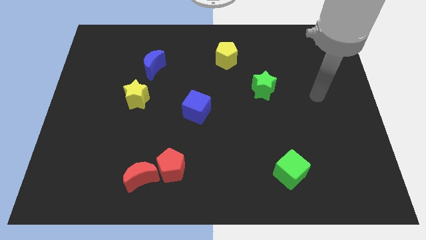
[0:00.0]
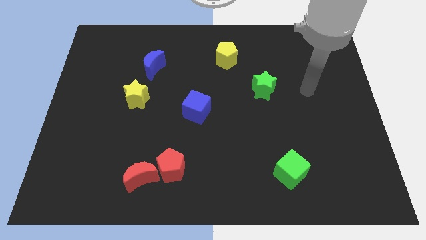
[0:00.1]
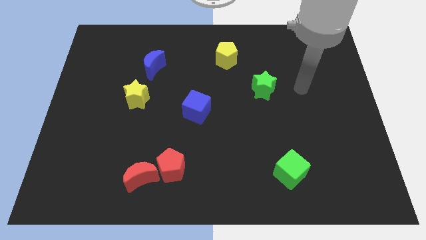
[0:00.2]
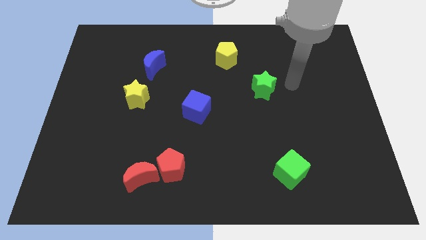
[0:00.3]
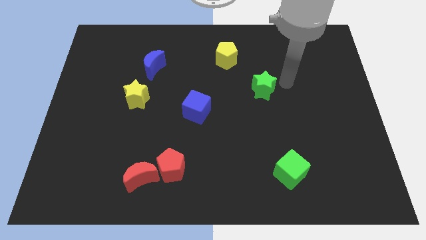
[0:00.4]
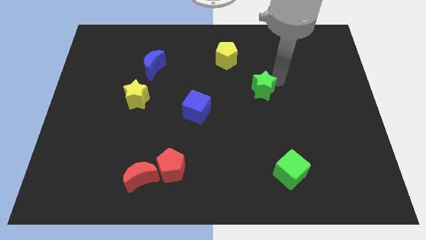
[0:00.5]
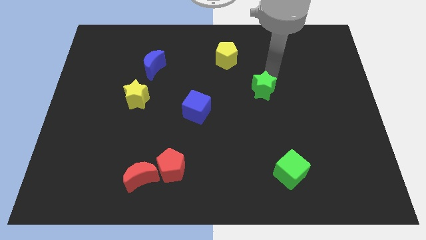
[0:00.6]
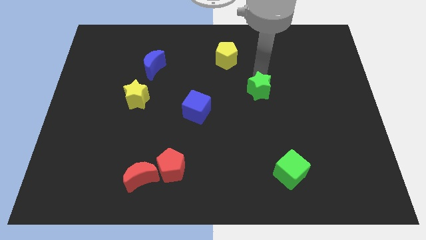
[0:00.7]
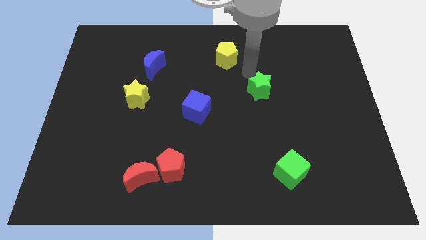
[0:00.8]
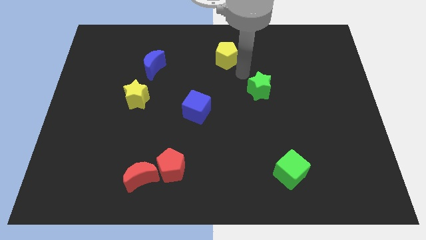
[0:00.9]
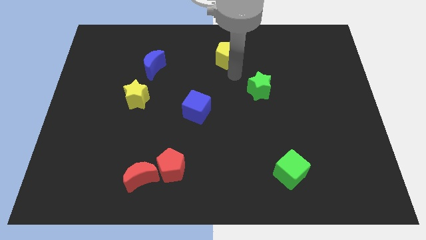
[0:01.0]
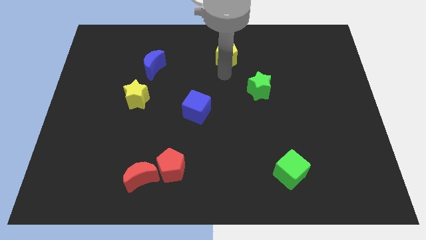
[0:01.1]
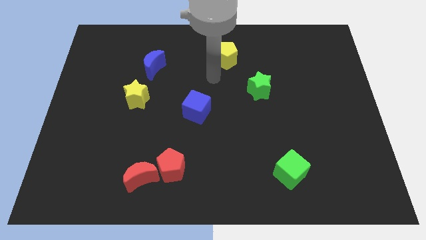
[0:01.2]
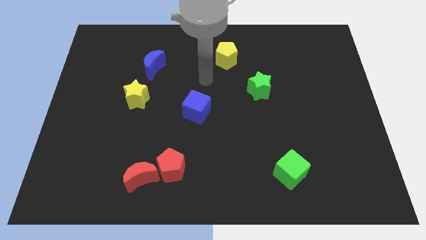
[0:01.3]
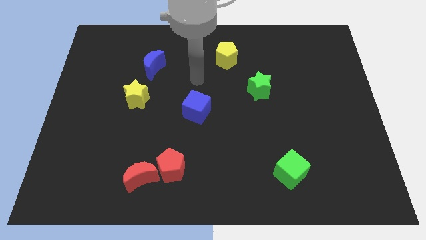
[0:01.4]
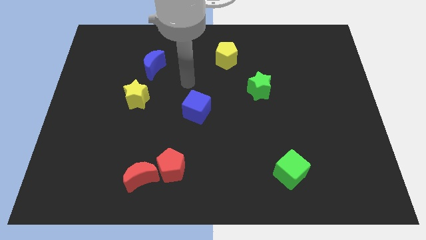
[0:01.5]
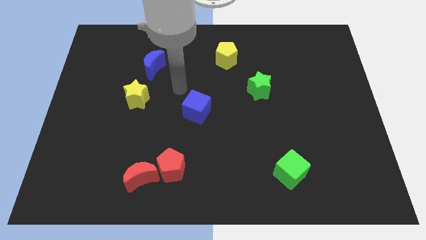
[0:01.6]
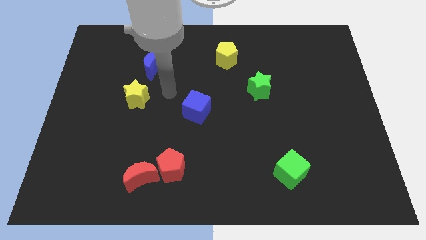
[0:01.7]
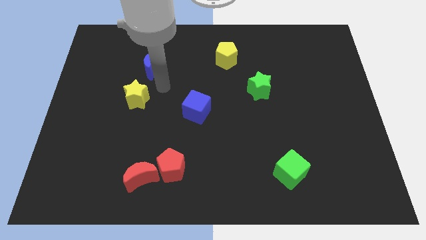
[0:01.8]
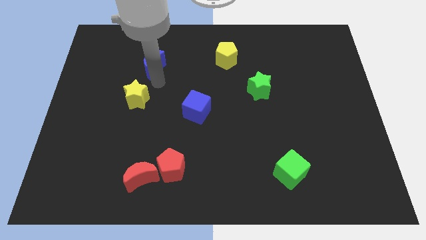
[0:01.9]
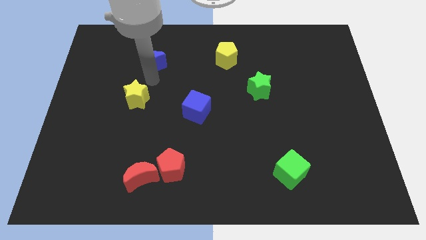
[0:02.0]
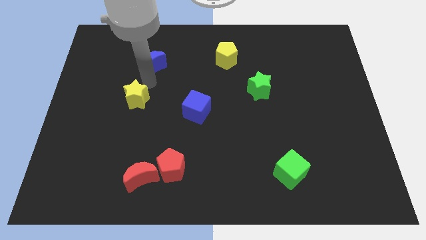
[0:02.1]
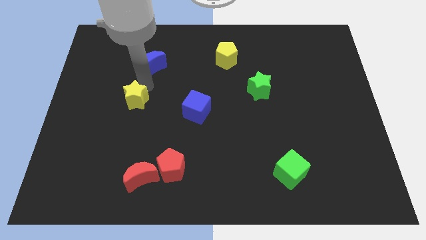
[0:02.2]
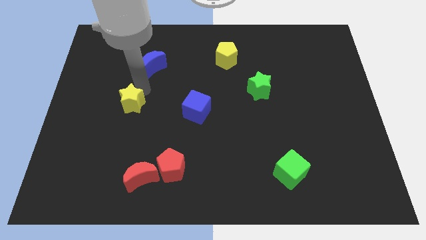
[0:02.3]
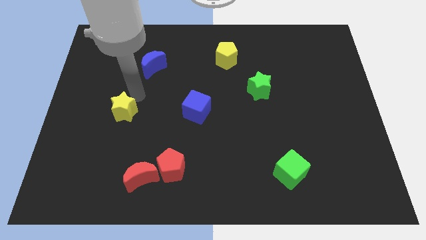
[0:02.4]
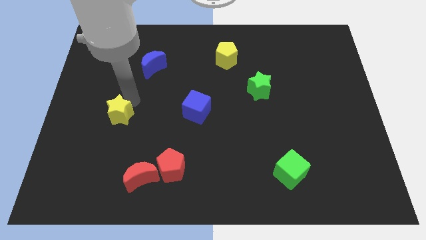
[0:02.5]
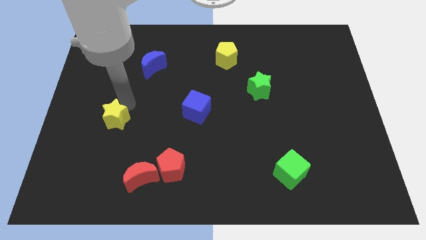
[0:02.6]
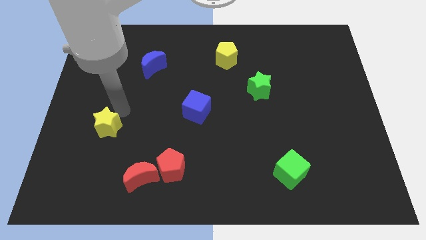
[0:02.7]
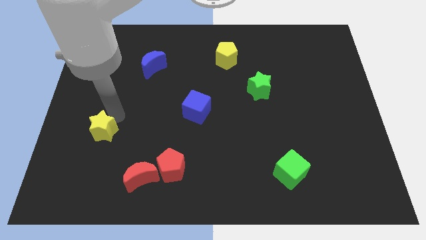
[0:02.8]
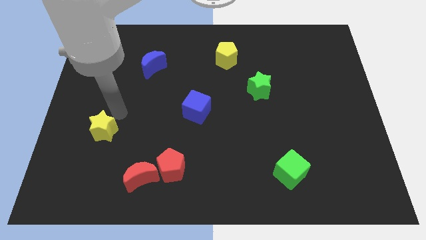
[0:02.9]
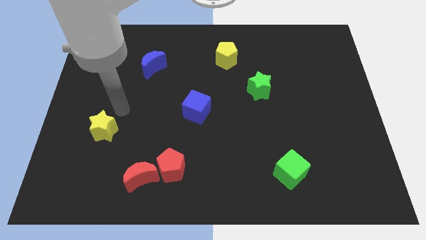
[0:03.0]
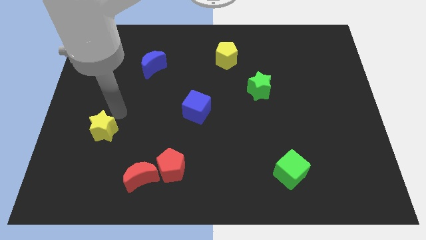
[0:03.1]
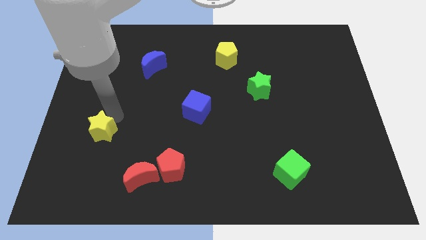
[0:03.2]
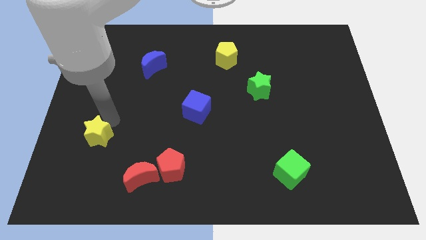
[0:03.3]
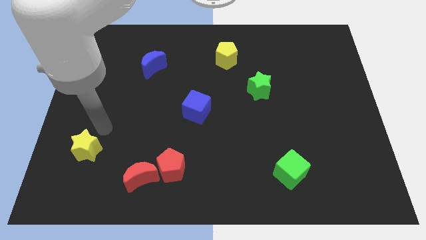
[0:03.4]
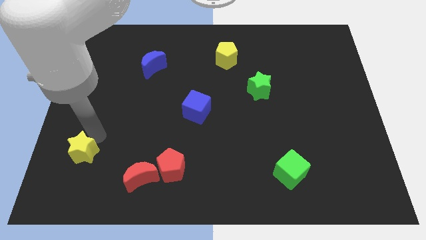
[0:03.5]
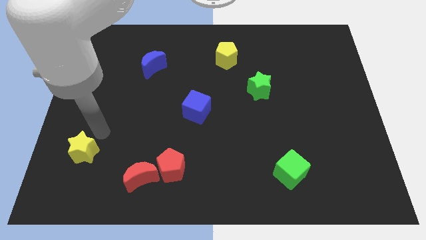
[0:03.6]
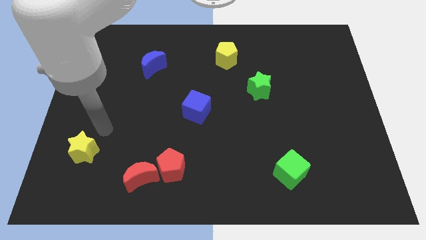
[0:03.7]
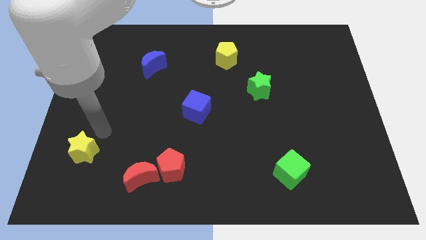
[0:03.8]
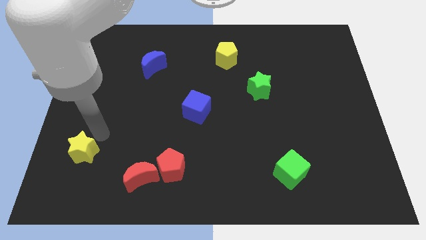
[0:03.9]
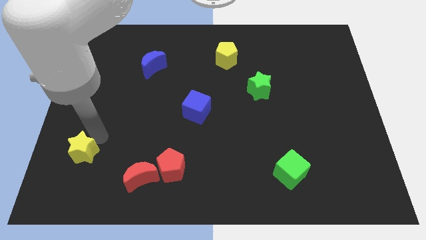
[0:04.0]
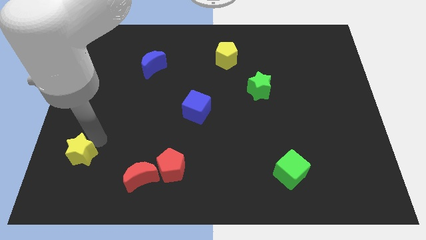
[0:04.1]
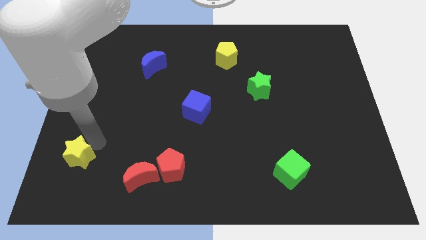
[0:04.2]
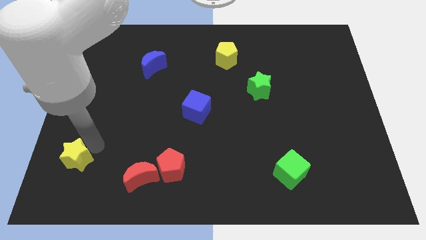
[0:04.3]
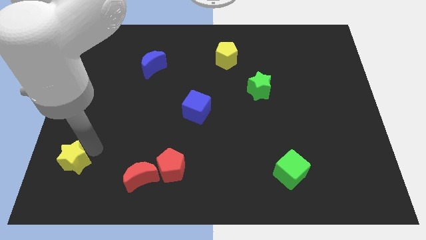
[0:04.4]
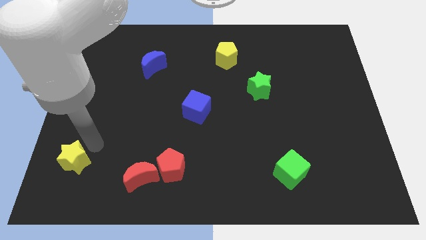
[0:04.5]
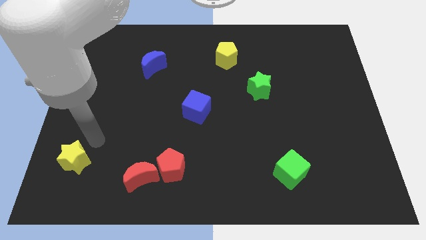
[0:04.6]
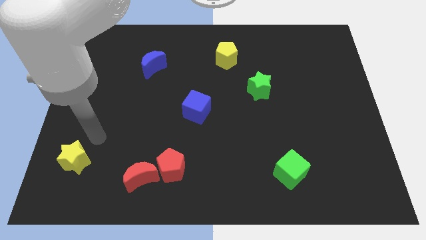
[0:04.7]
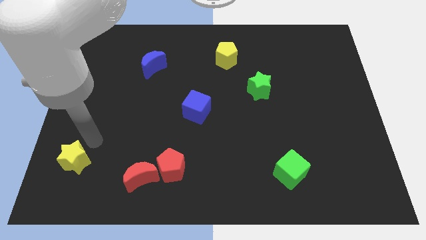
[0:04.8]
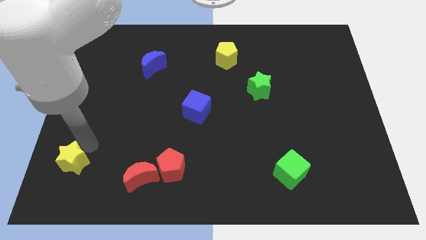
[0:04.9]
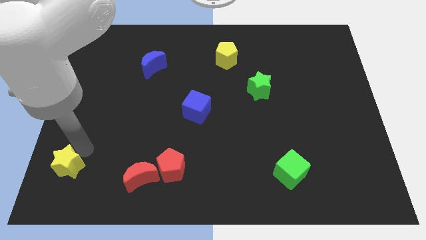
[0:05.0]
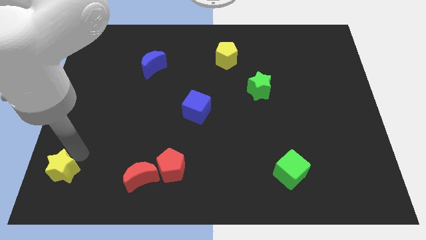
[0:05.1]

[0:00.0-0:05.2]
move the yellow star to the bottom left of the board
